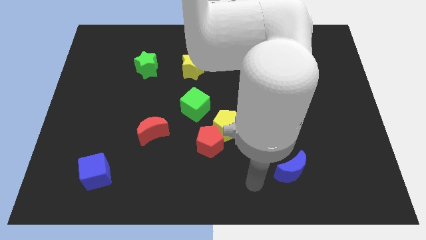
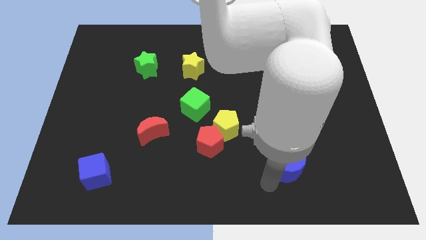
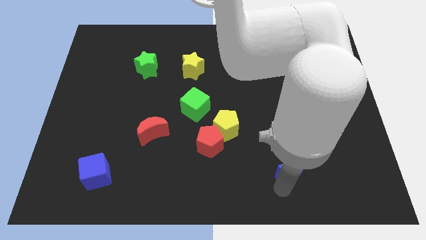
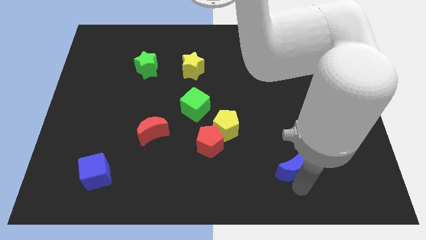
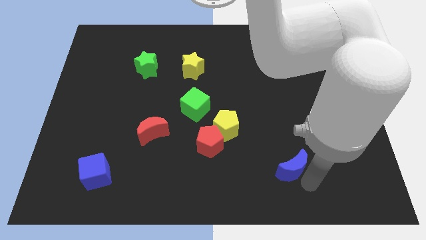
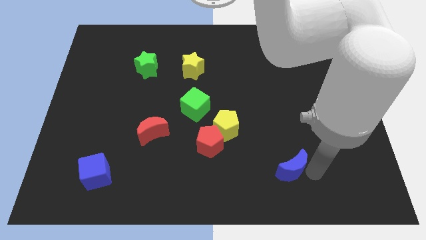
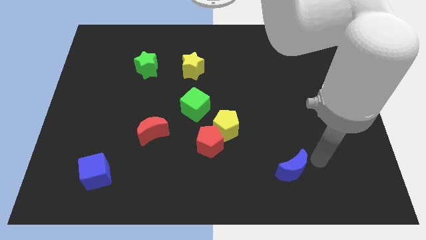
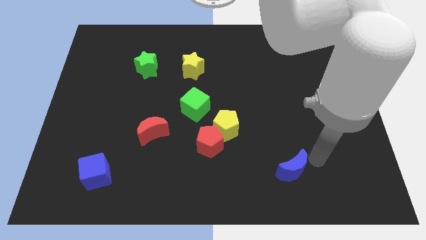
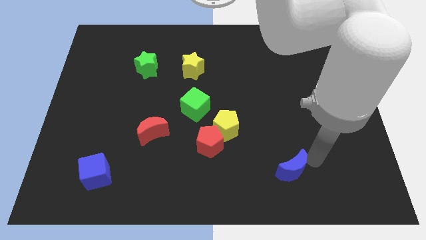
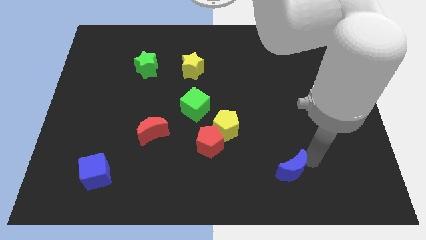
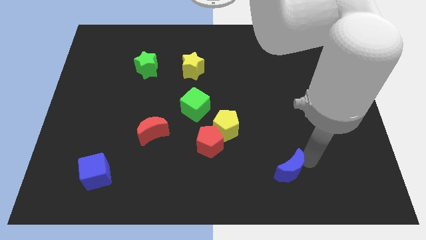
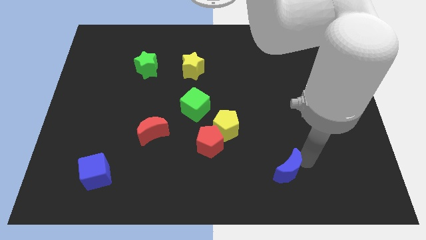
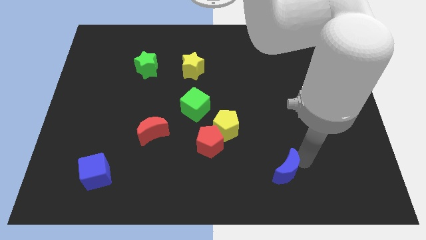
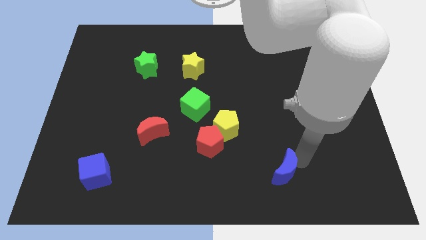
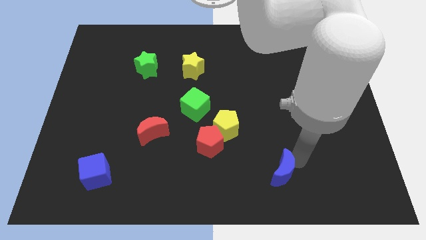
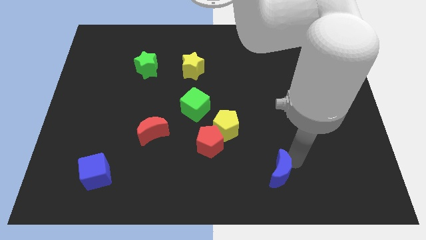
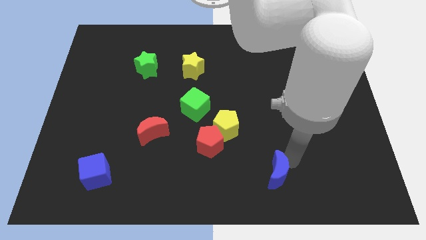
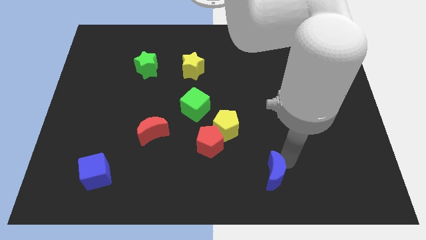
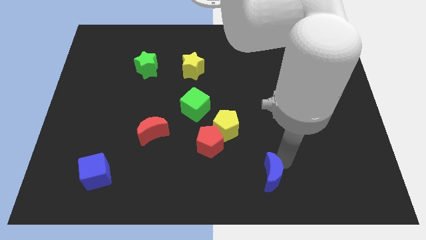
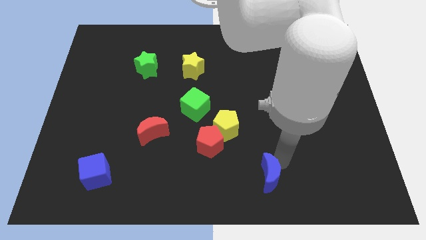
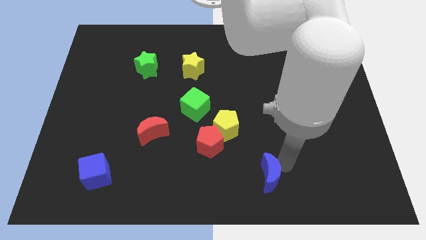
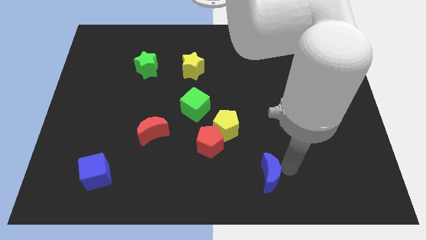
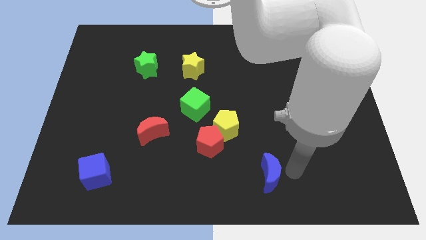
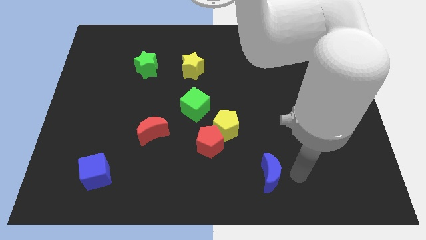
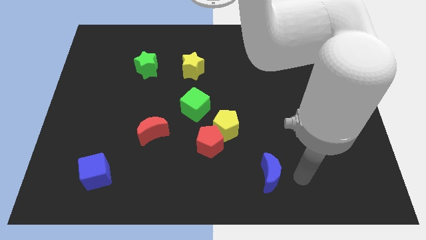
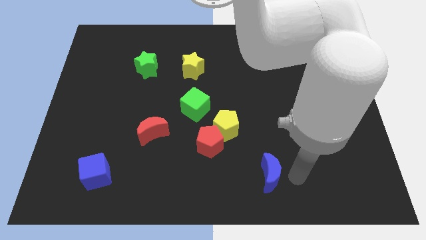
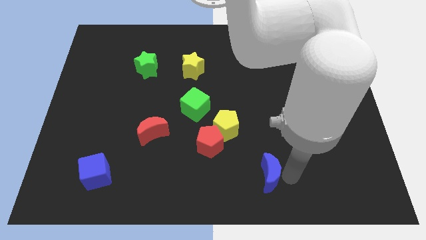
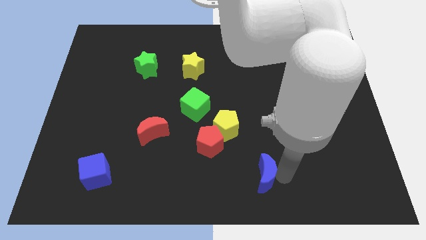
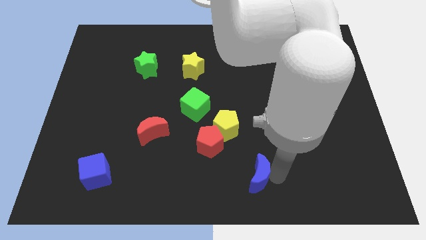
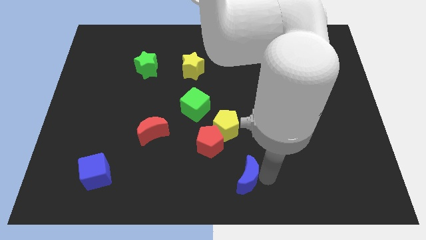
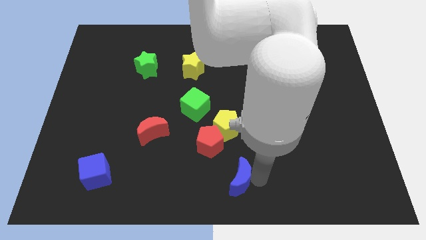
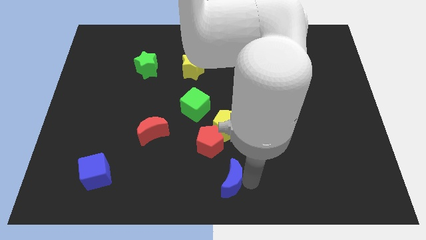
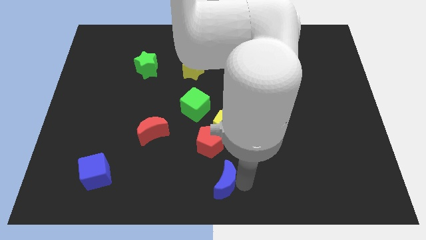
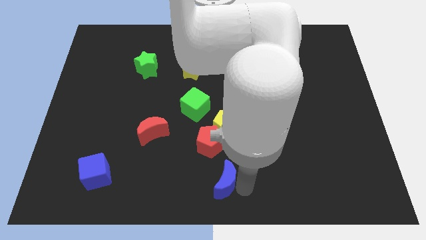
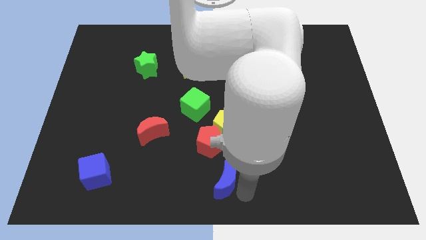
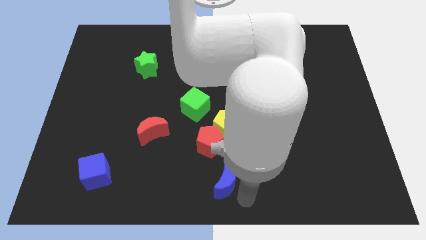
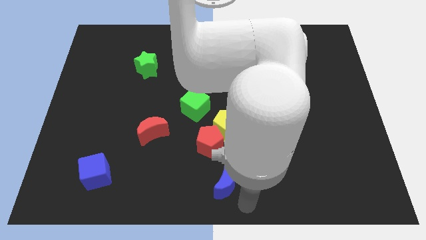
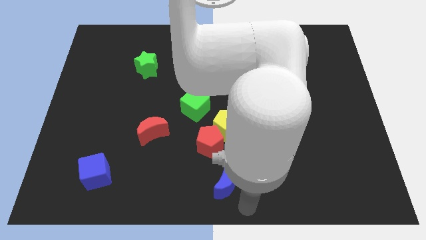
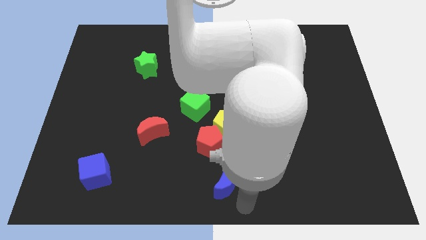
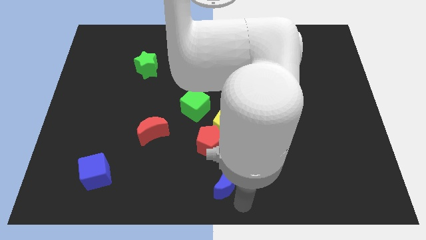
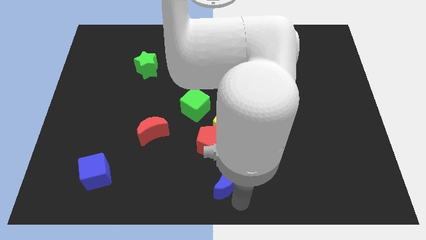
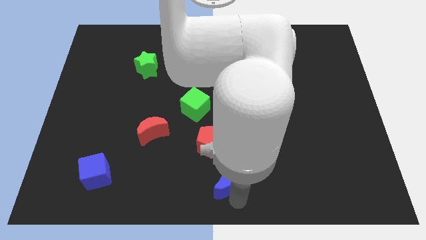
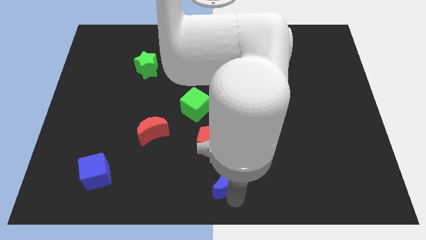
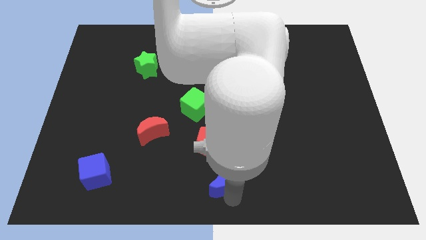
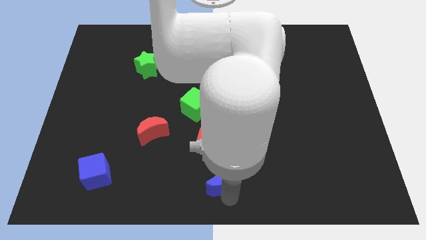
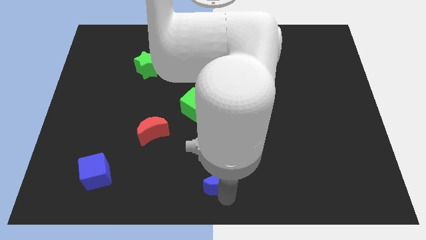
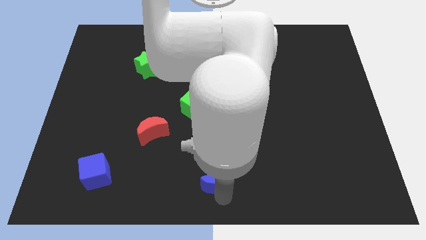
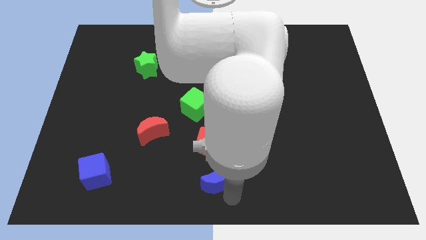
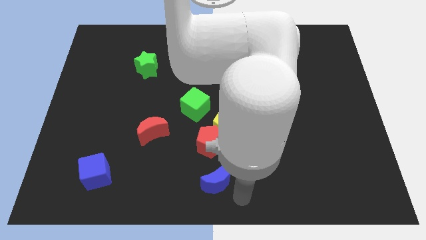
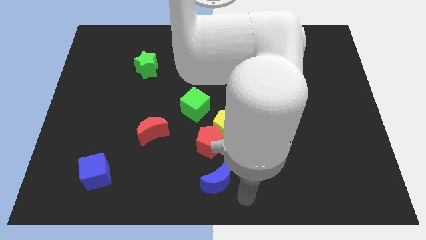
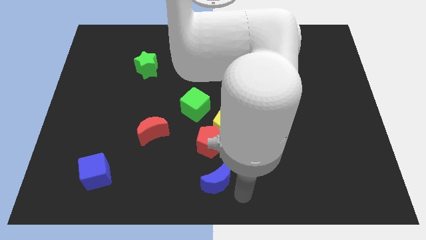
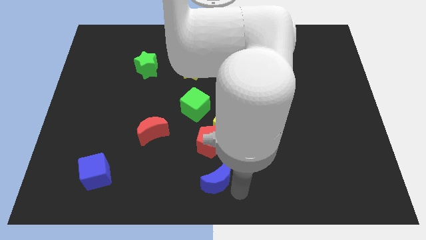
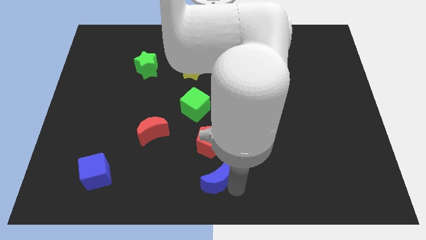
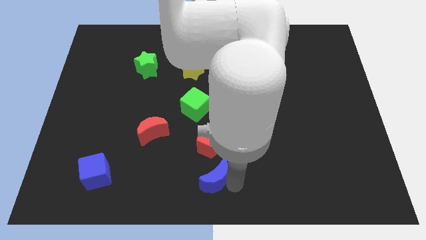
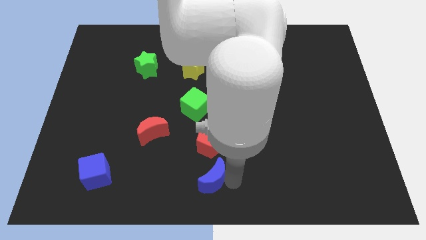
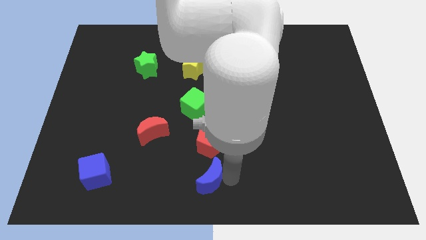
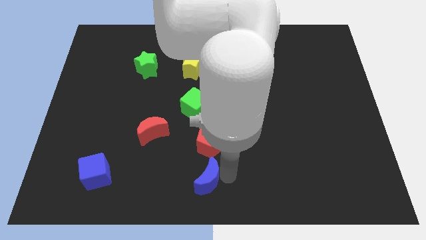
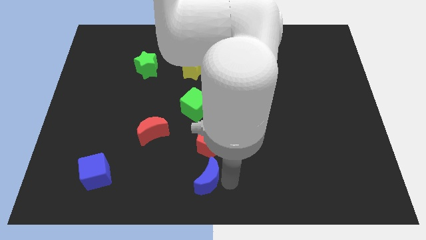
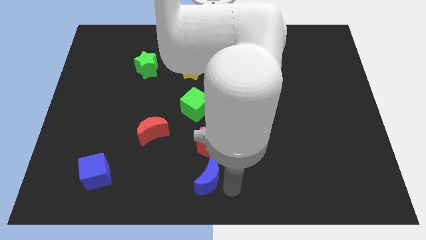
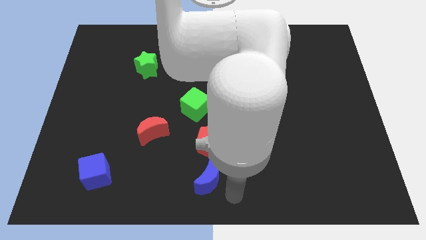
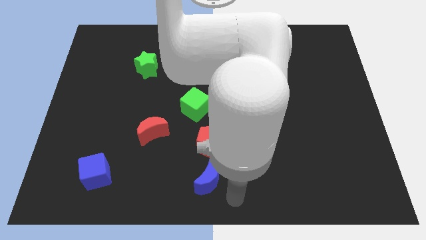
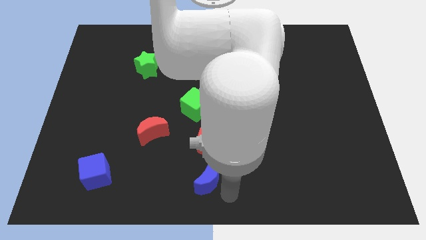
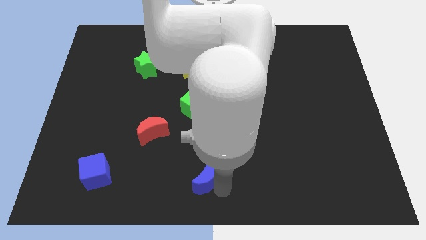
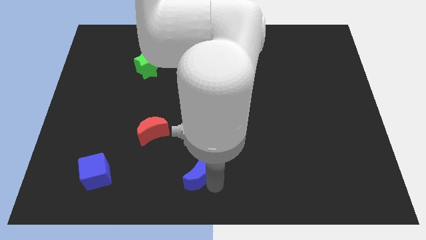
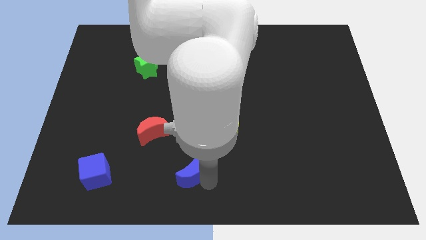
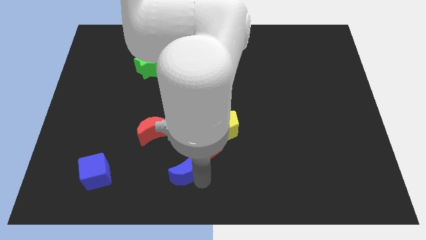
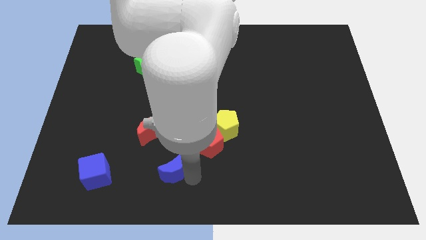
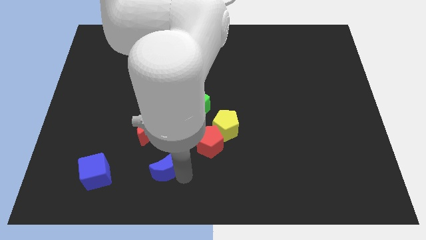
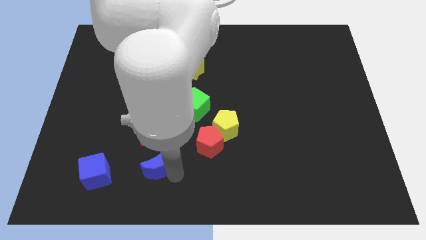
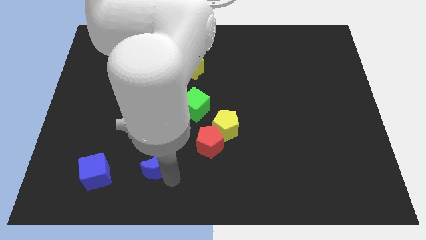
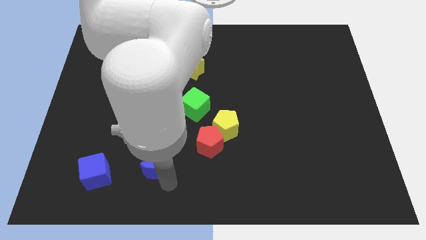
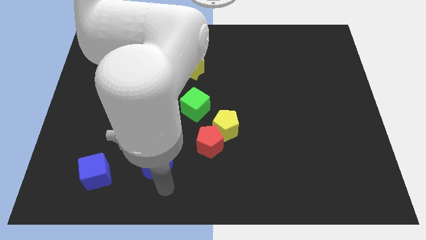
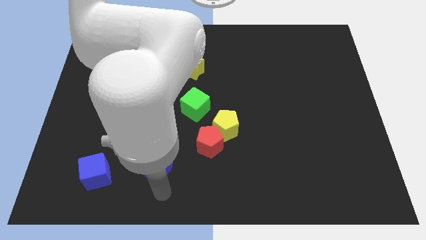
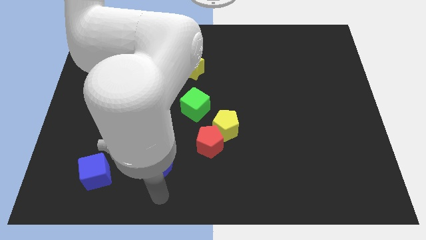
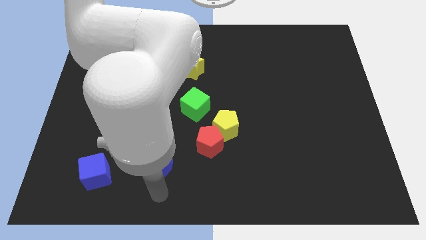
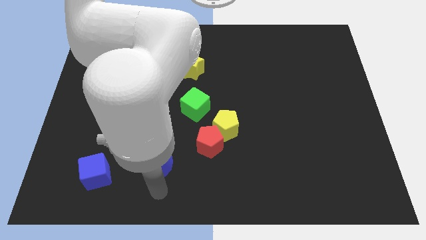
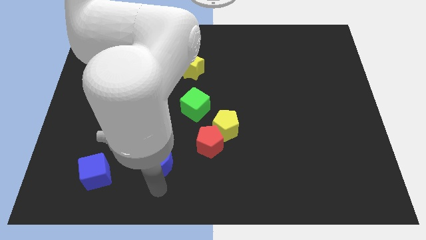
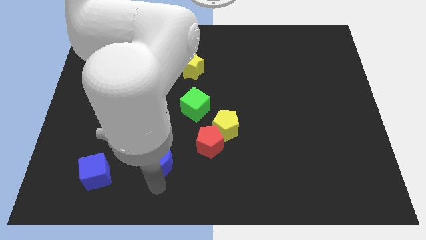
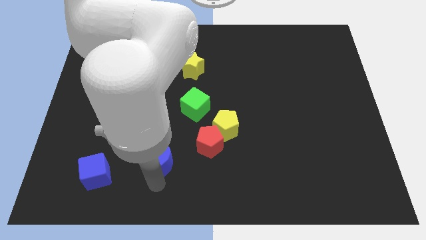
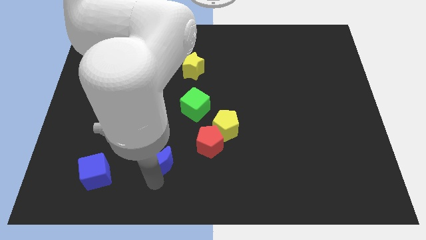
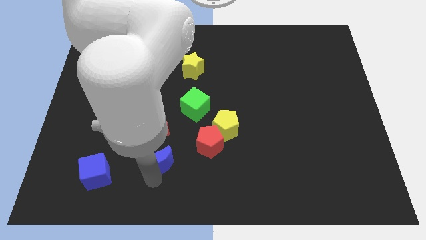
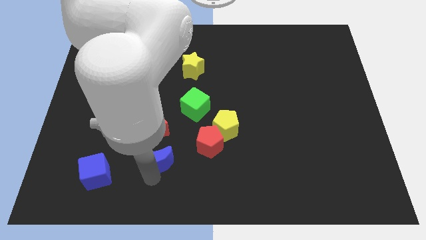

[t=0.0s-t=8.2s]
move the blue moon left of the red pentagon
